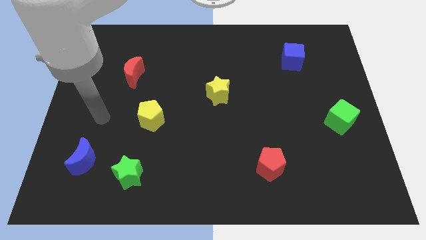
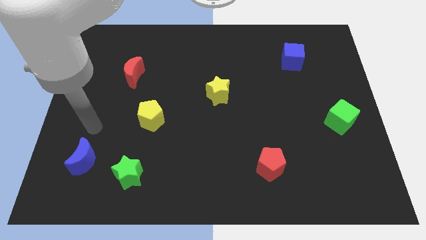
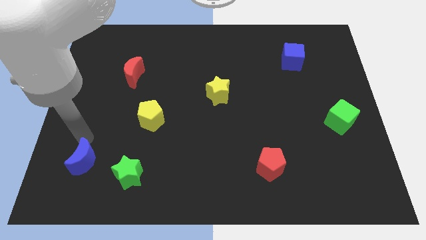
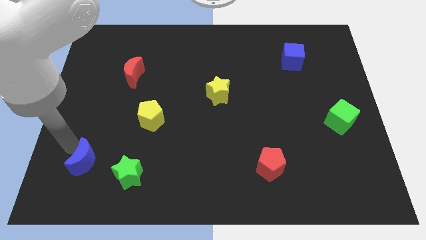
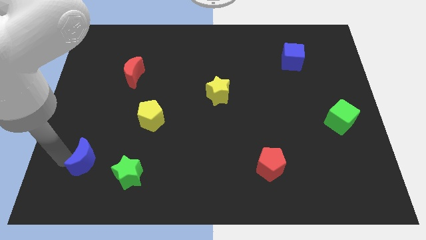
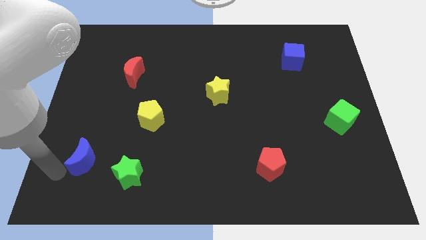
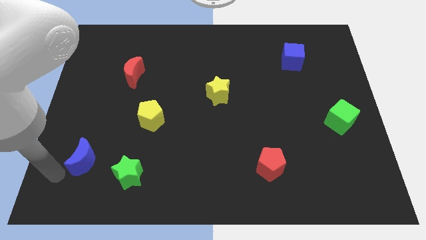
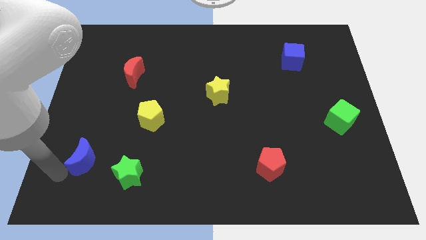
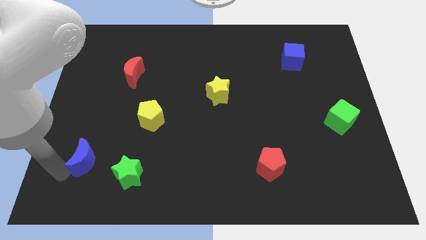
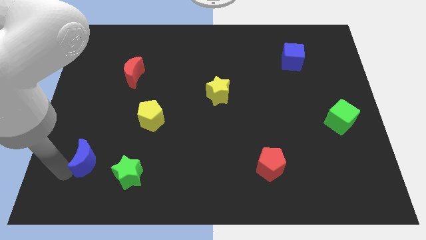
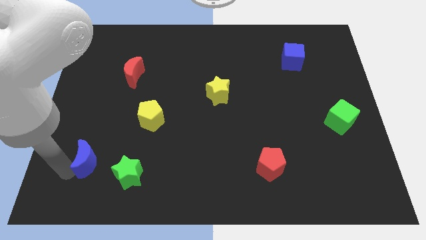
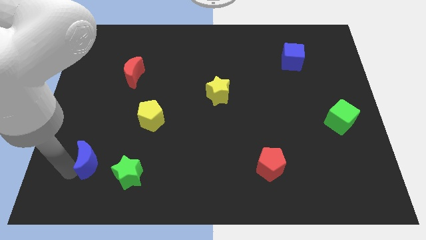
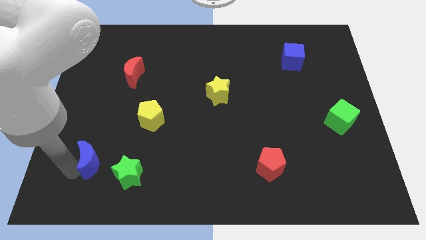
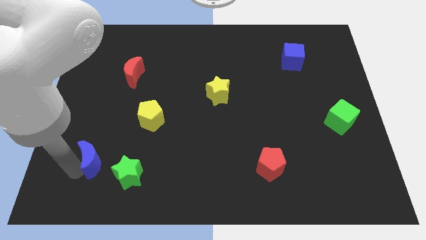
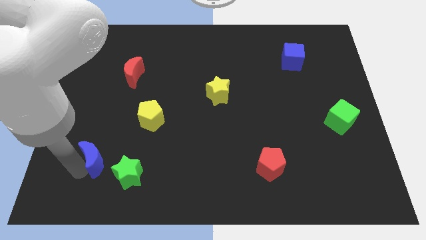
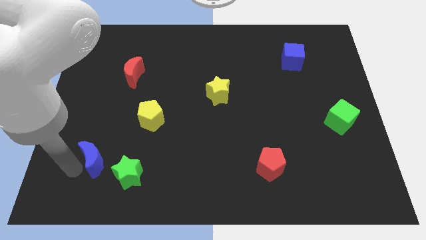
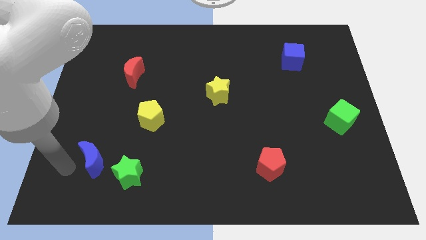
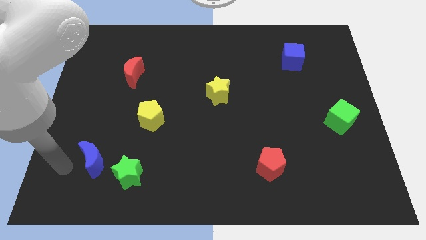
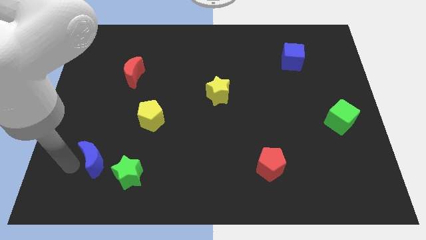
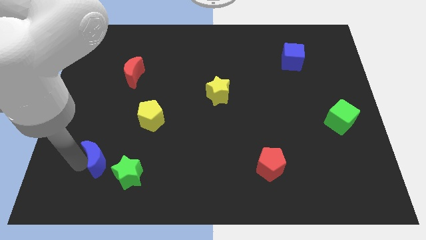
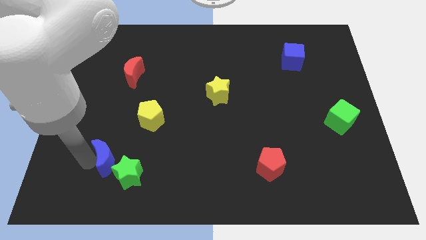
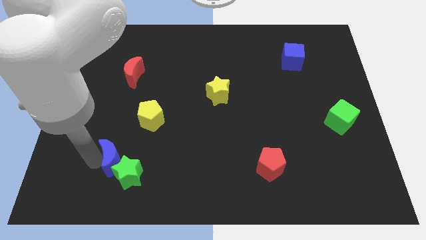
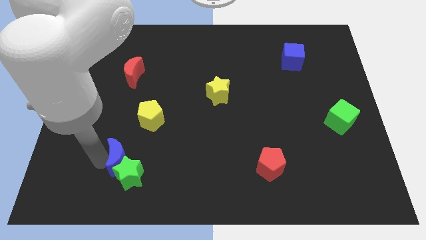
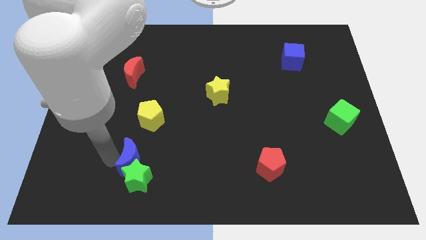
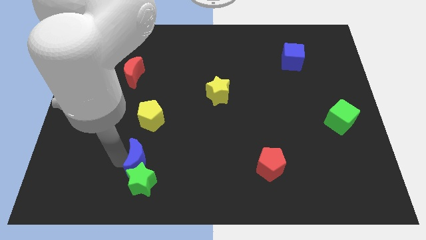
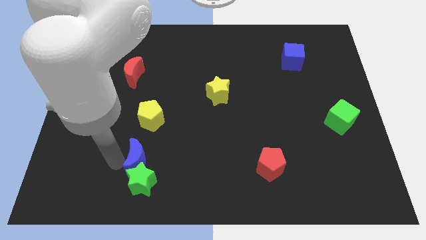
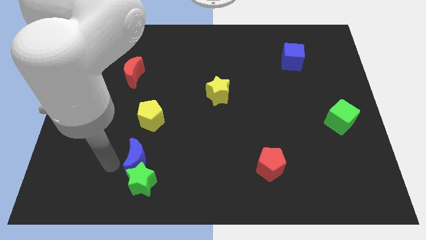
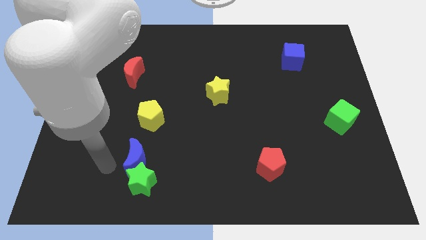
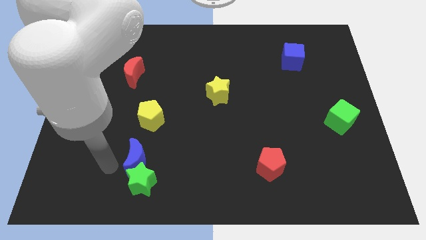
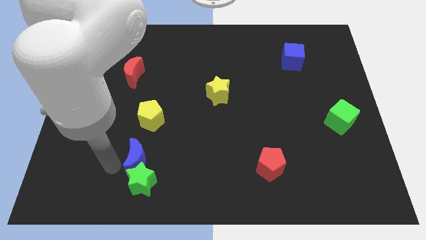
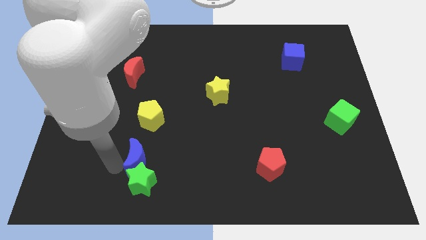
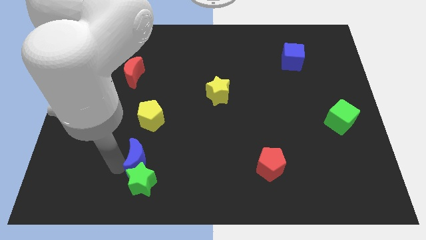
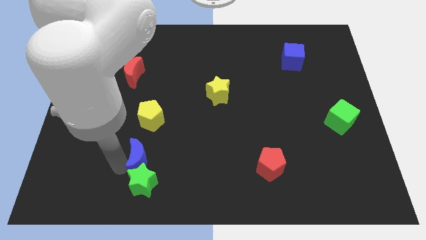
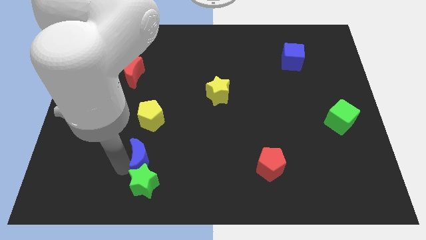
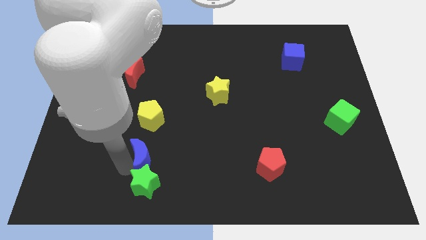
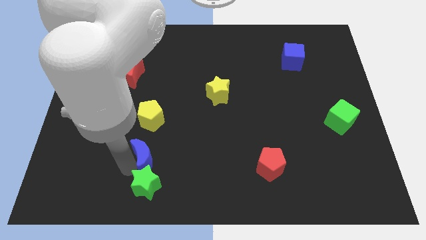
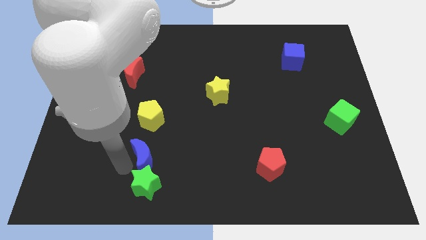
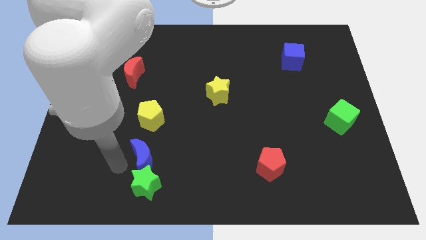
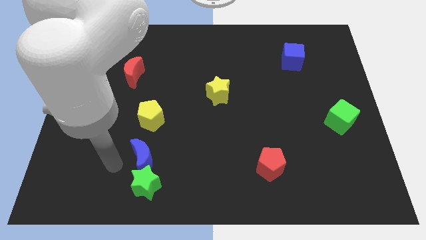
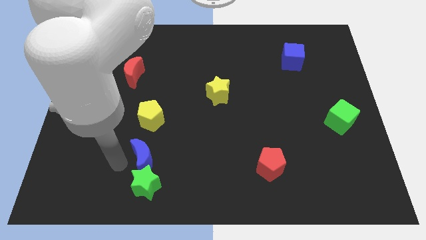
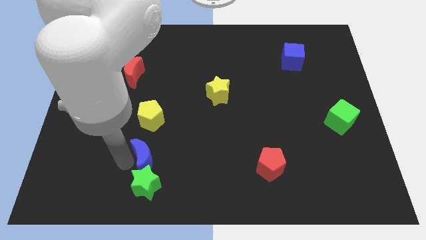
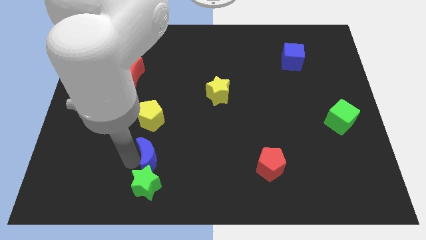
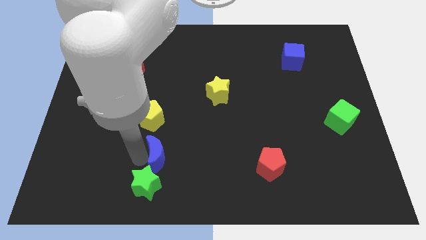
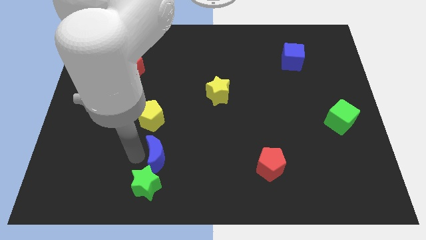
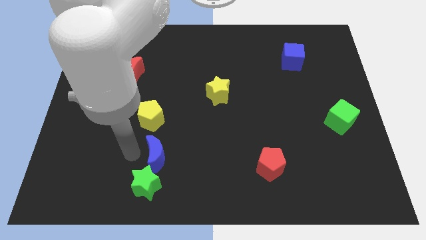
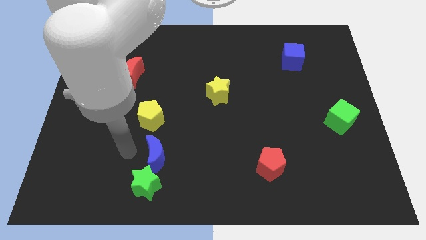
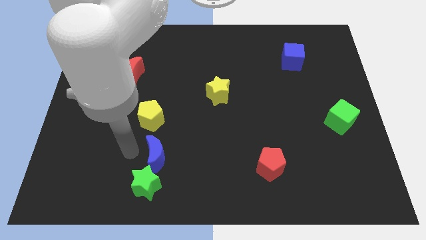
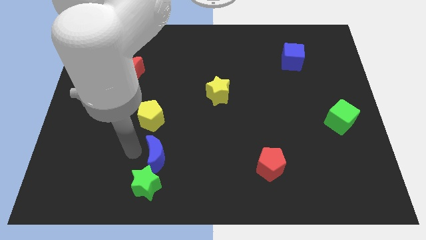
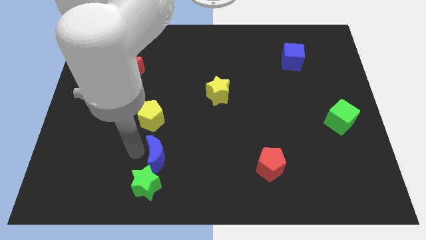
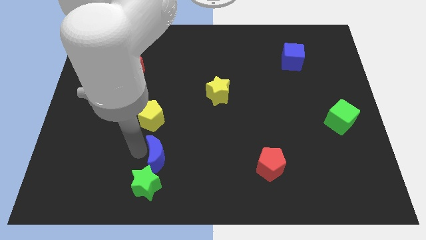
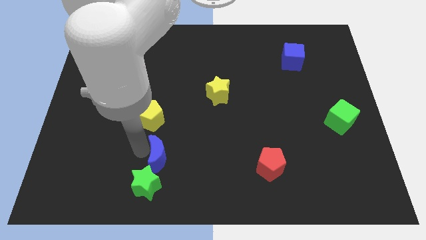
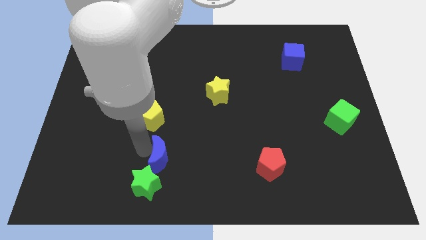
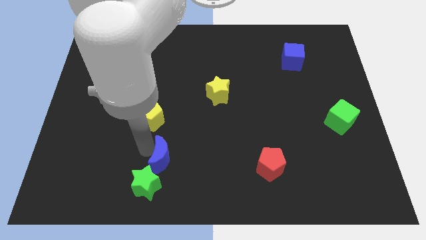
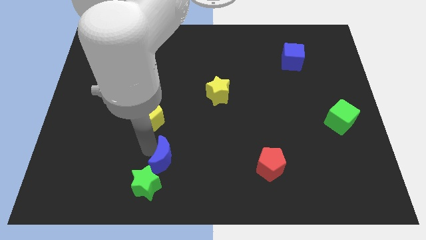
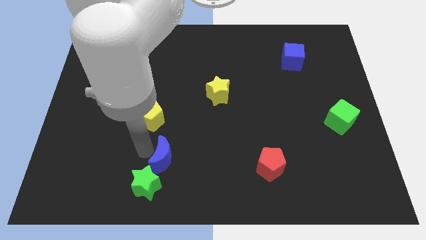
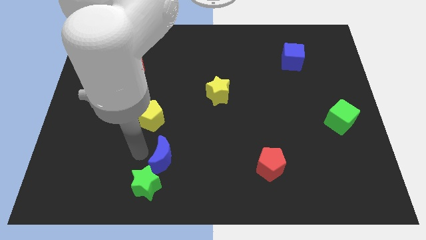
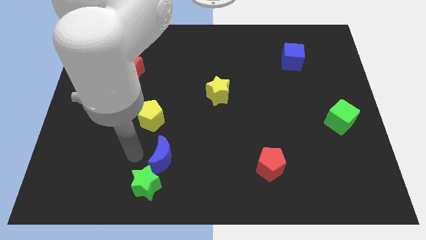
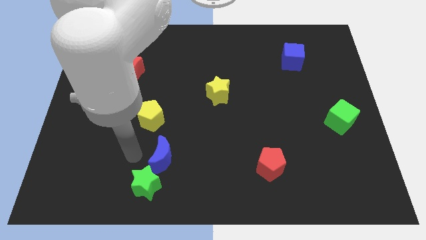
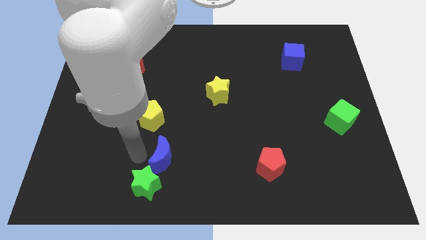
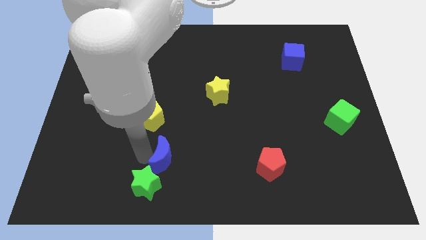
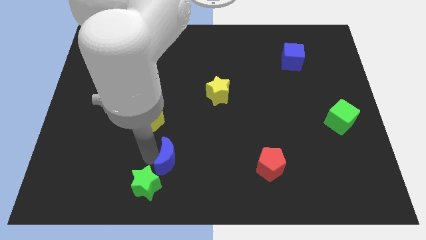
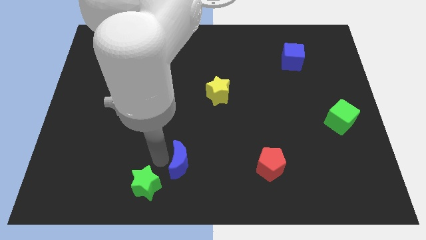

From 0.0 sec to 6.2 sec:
move the blue moon to the right

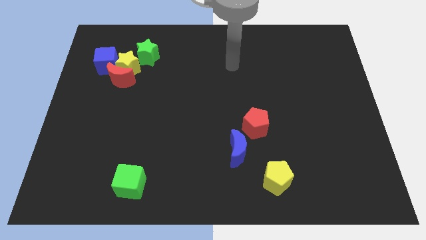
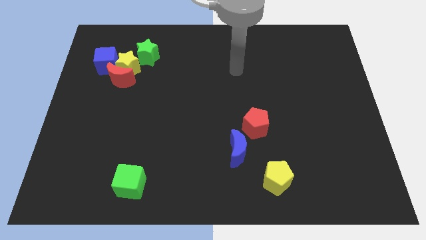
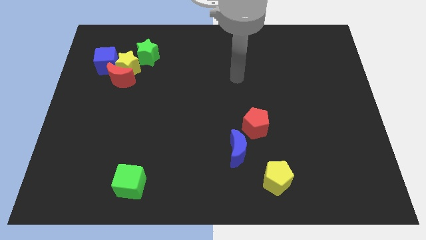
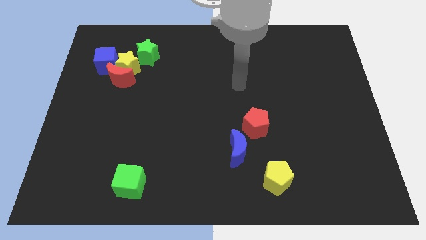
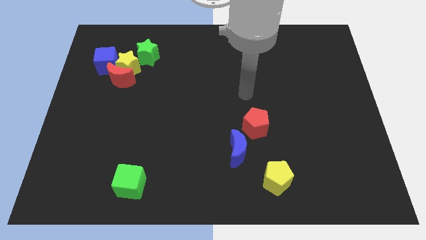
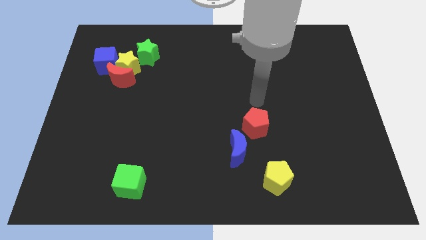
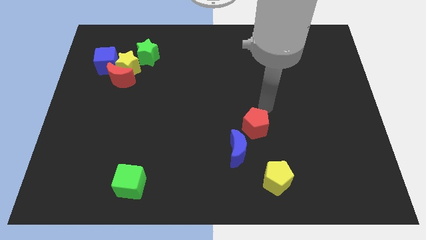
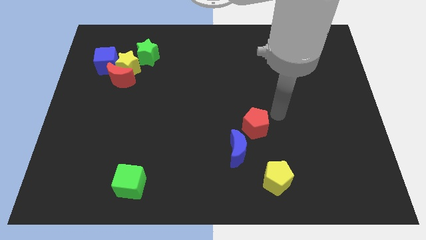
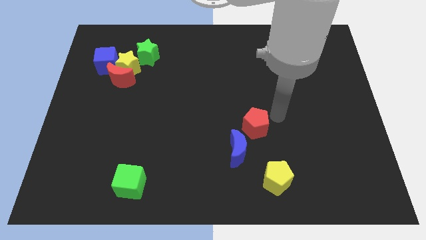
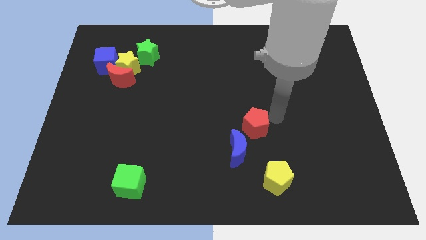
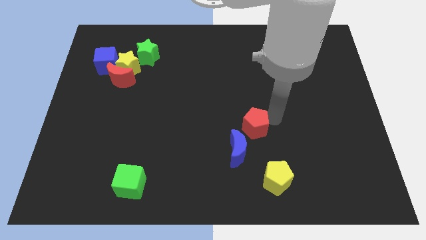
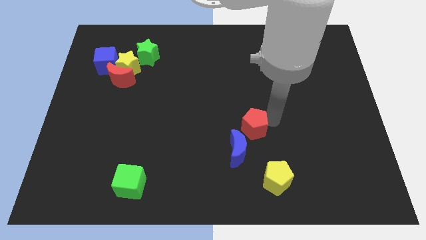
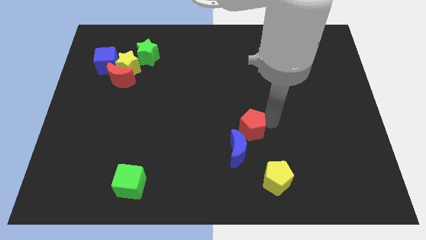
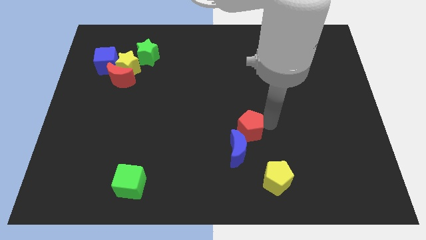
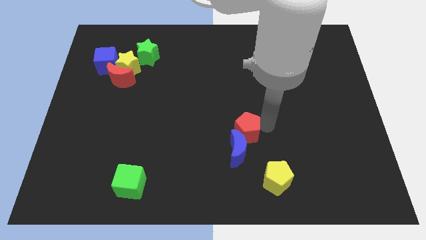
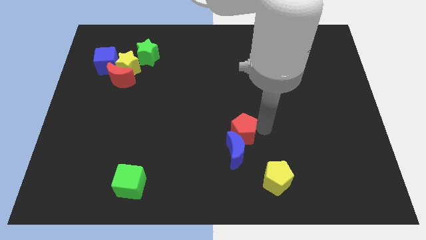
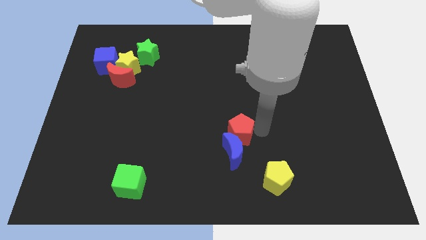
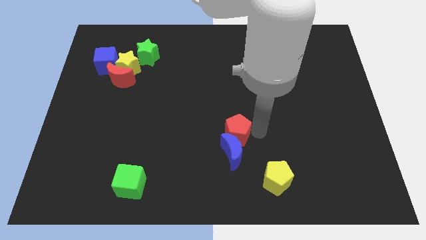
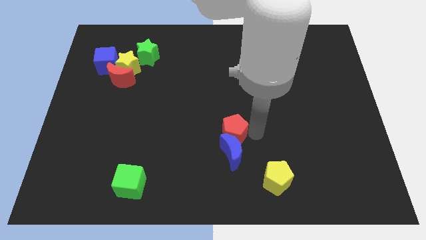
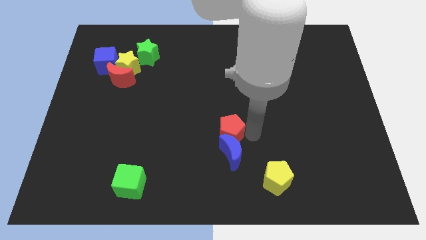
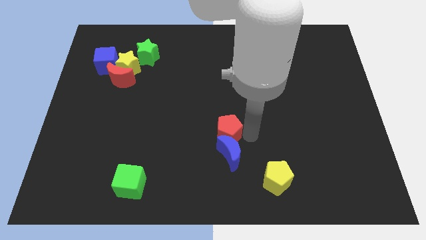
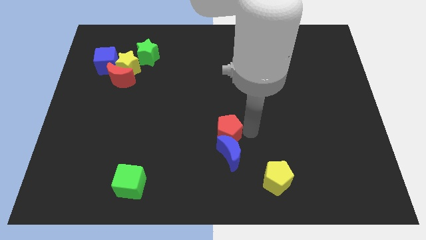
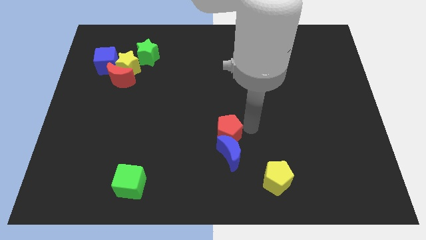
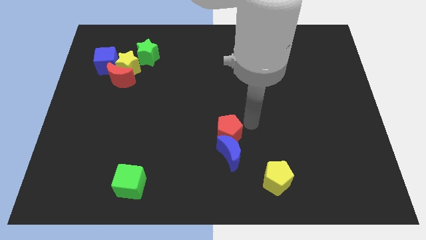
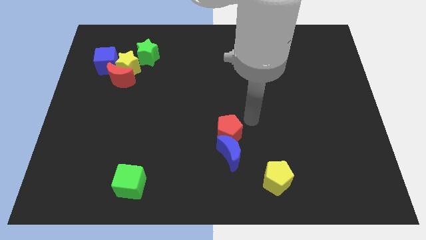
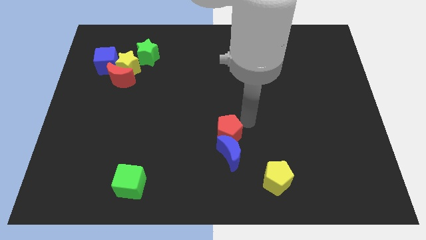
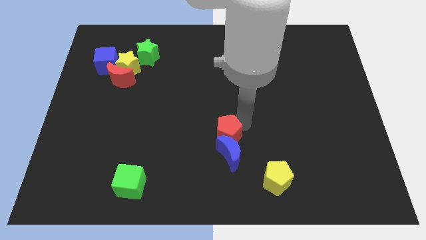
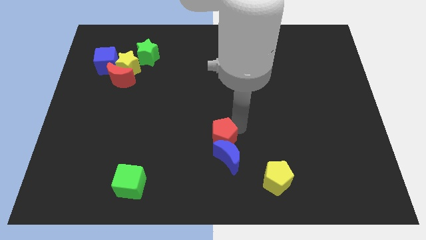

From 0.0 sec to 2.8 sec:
move the red pentagon down and left somewhat
